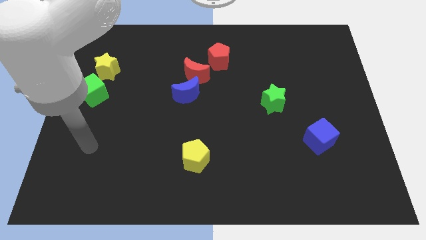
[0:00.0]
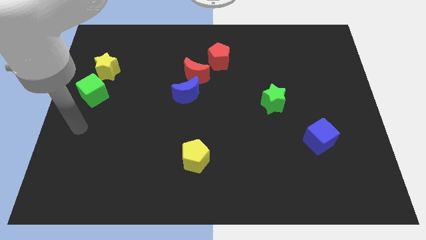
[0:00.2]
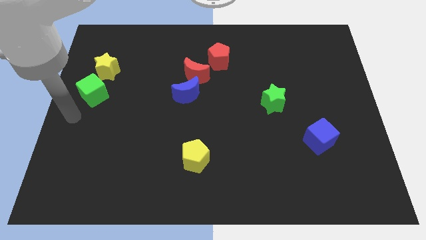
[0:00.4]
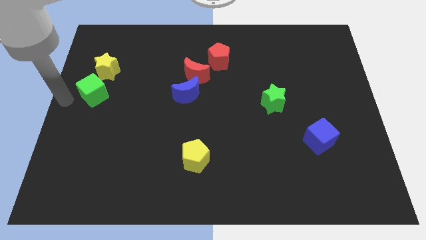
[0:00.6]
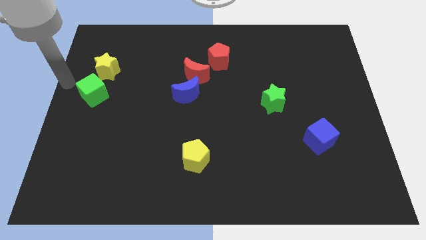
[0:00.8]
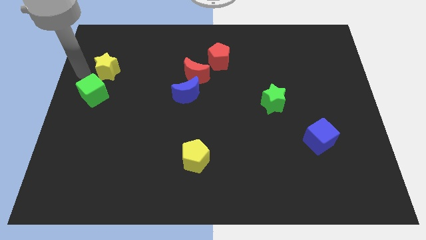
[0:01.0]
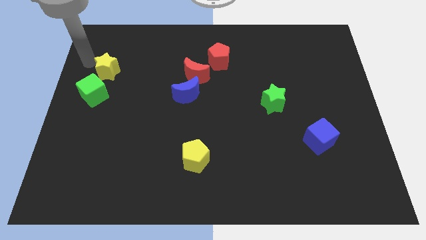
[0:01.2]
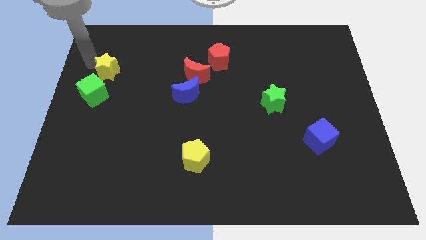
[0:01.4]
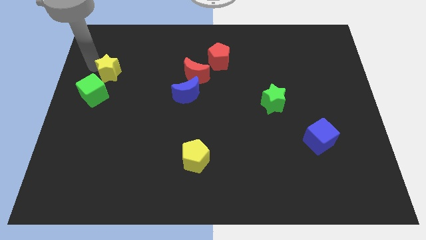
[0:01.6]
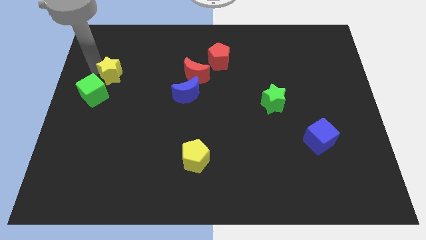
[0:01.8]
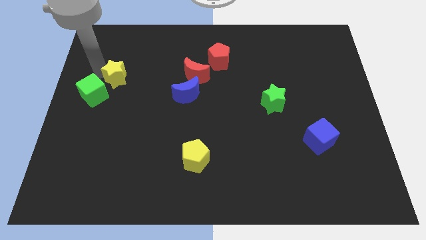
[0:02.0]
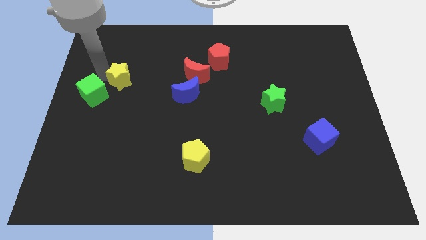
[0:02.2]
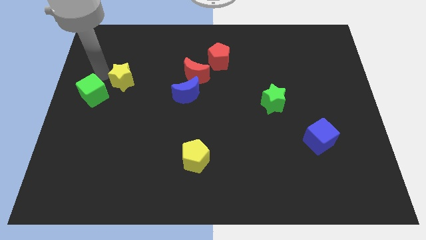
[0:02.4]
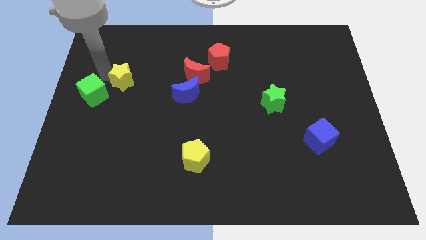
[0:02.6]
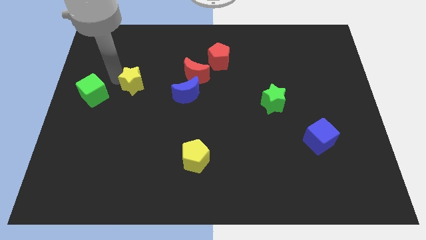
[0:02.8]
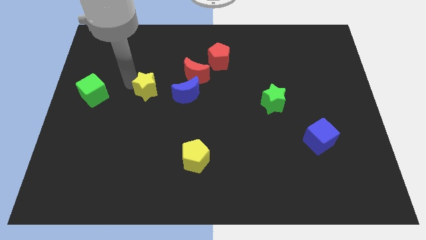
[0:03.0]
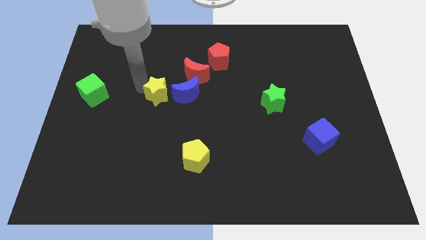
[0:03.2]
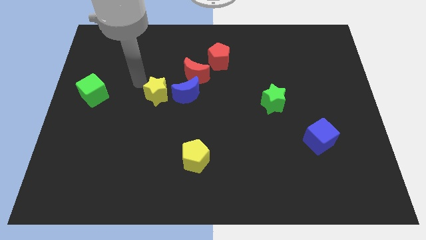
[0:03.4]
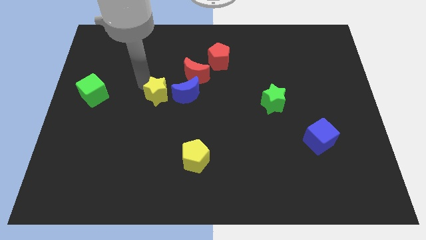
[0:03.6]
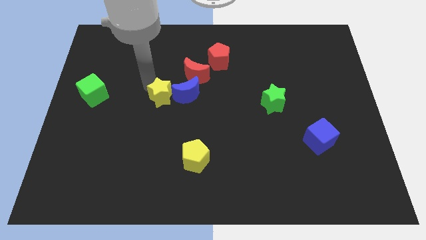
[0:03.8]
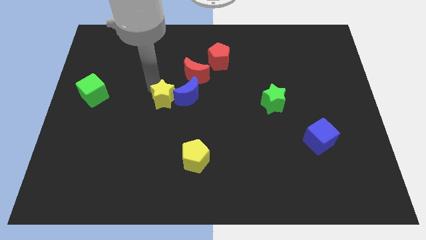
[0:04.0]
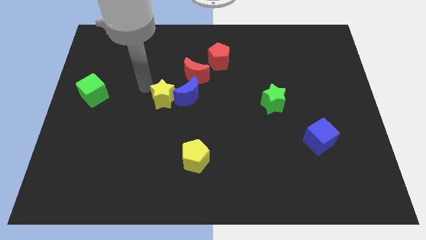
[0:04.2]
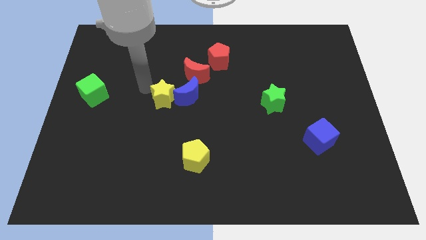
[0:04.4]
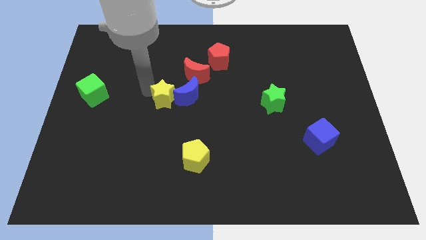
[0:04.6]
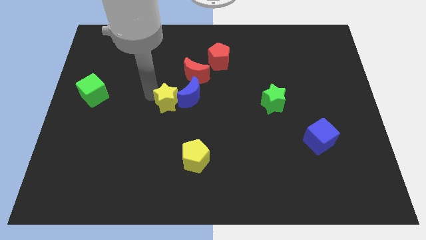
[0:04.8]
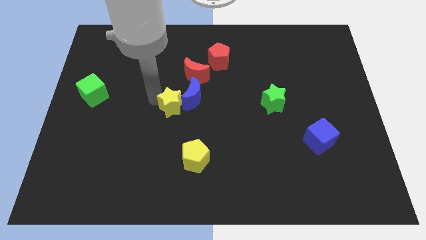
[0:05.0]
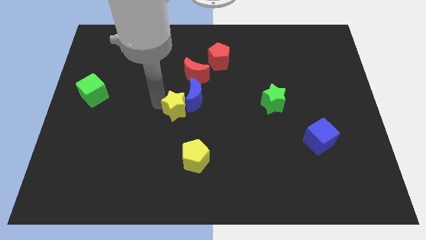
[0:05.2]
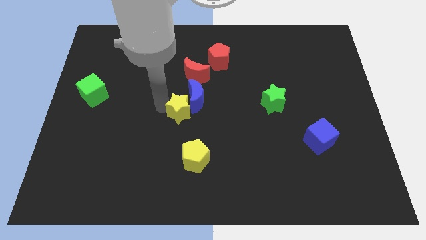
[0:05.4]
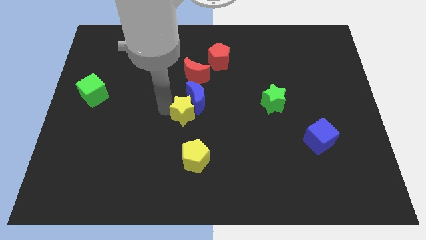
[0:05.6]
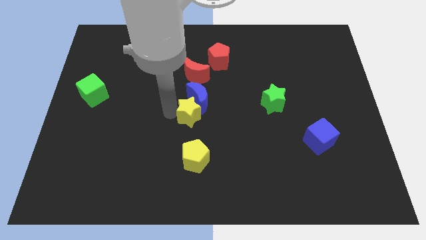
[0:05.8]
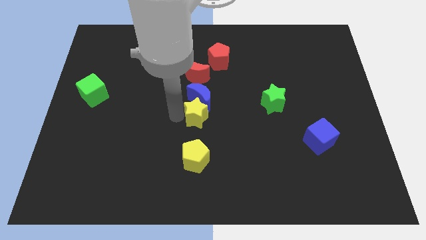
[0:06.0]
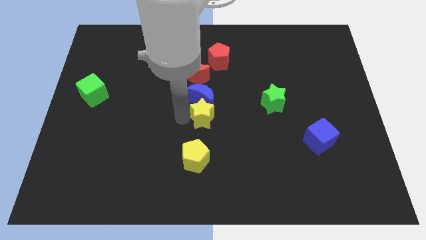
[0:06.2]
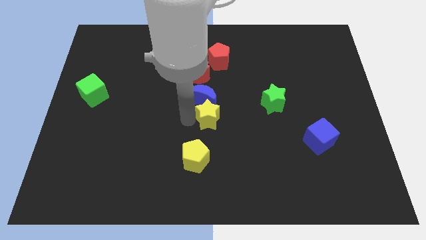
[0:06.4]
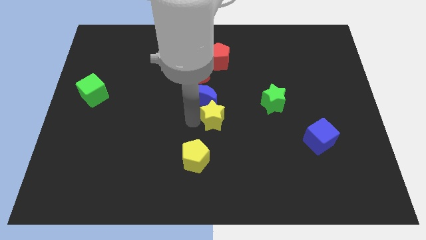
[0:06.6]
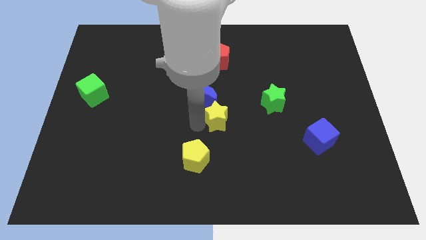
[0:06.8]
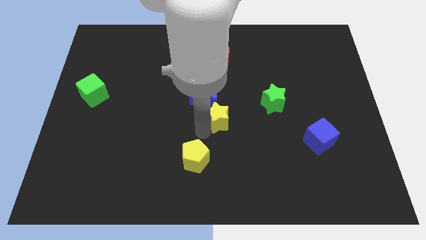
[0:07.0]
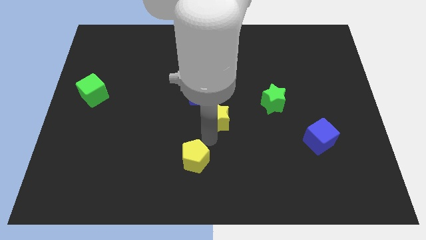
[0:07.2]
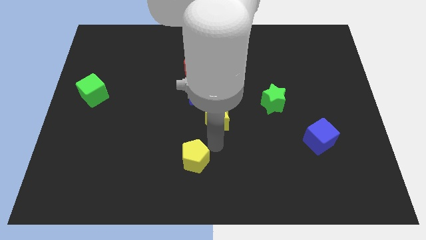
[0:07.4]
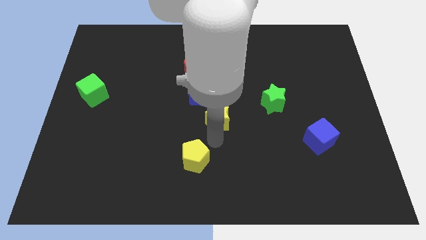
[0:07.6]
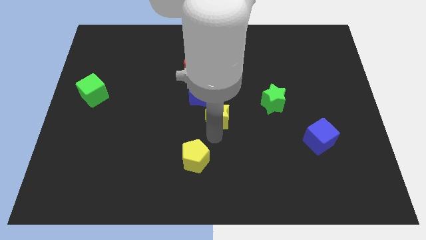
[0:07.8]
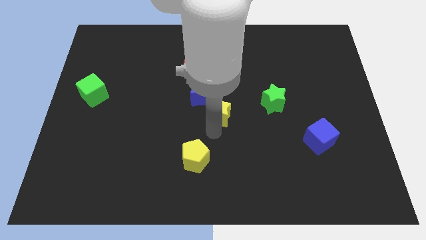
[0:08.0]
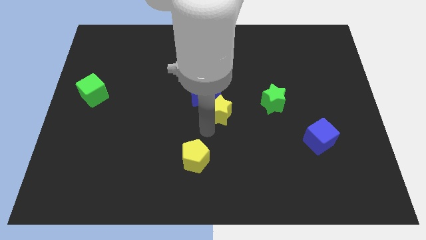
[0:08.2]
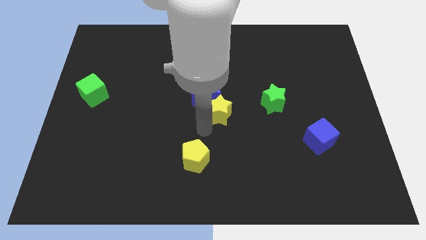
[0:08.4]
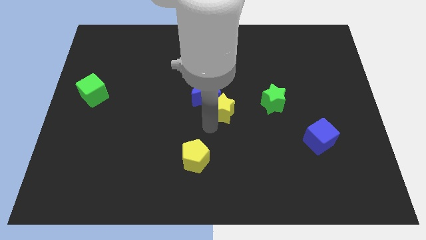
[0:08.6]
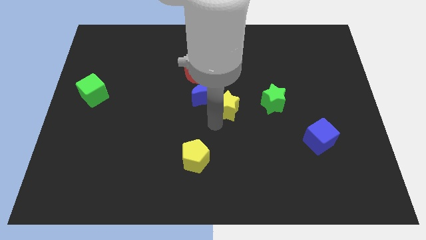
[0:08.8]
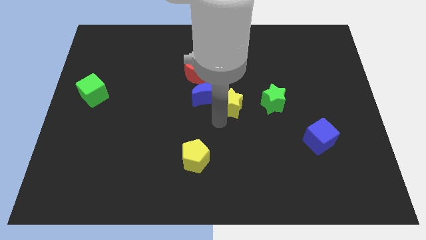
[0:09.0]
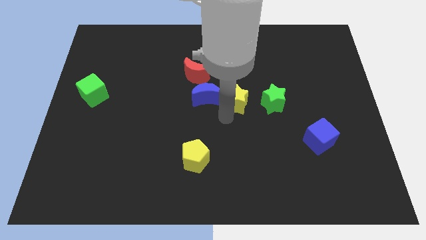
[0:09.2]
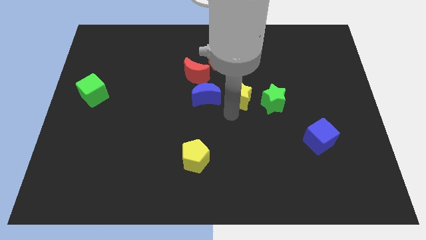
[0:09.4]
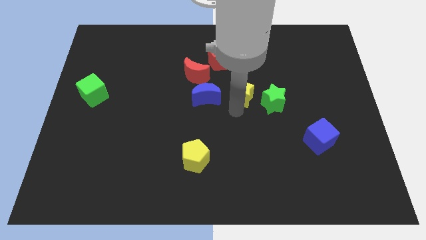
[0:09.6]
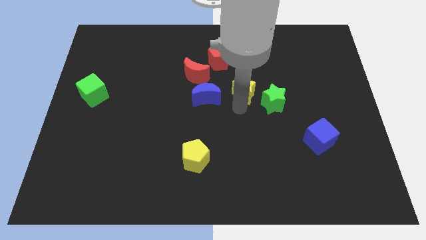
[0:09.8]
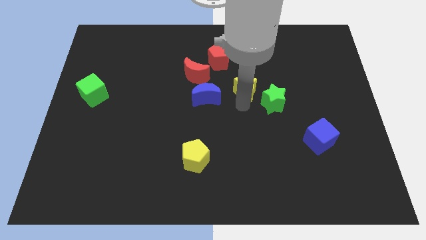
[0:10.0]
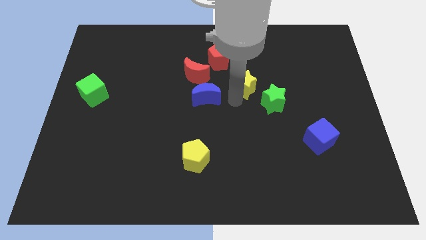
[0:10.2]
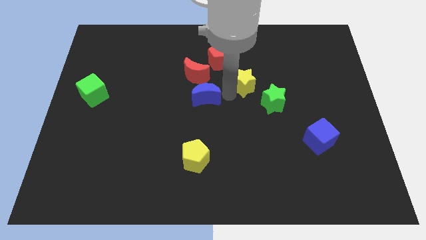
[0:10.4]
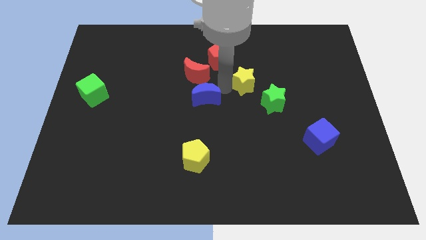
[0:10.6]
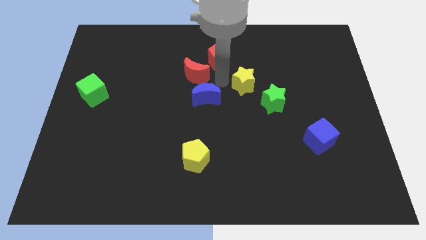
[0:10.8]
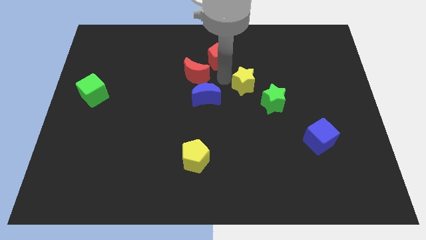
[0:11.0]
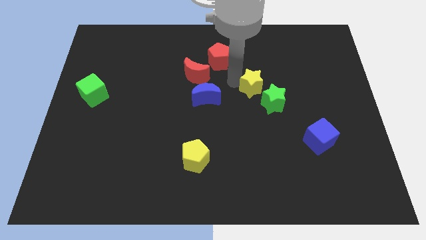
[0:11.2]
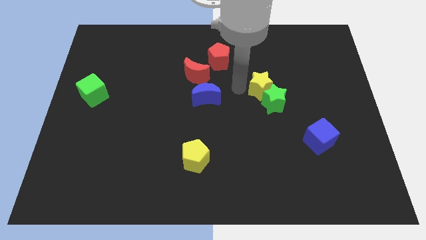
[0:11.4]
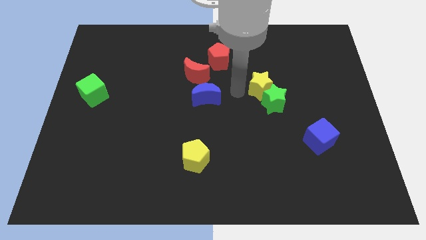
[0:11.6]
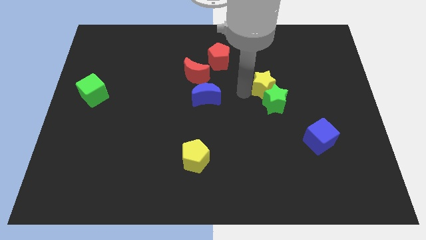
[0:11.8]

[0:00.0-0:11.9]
put the yellow star to the top right of the green star
